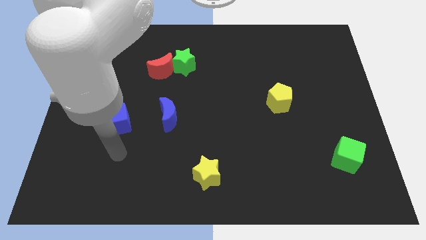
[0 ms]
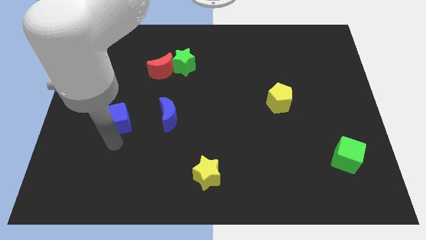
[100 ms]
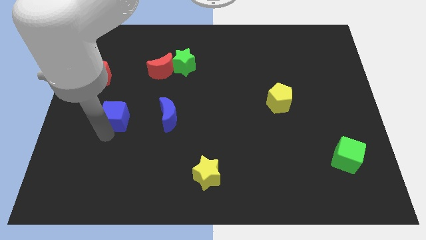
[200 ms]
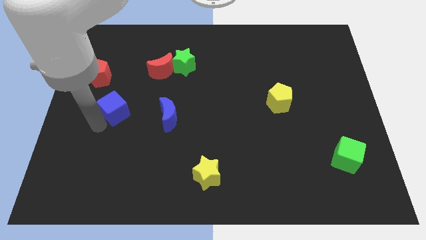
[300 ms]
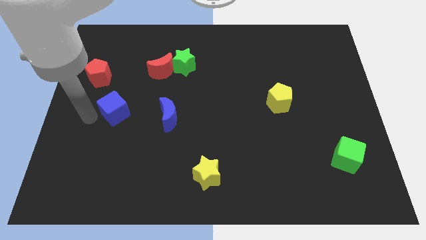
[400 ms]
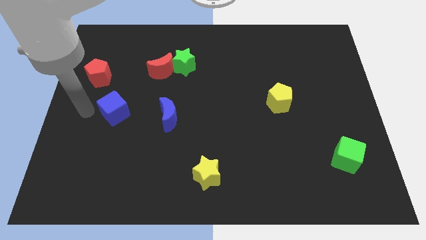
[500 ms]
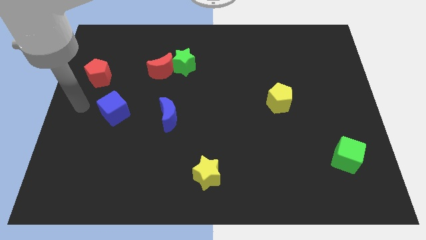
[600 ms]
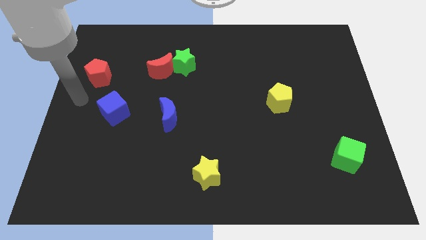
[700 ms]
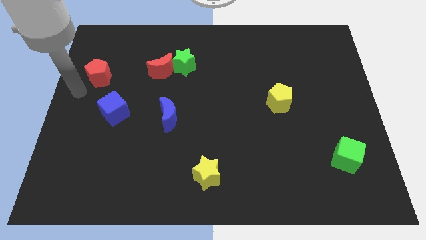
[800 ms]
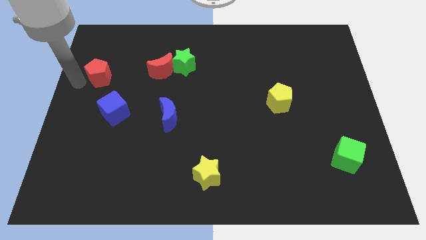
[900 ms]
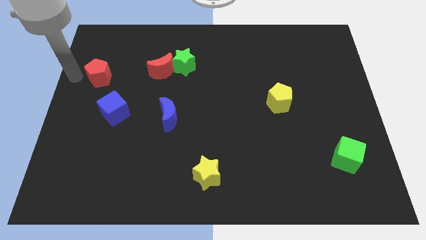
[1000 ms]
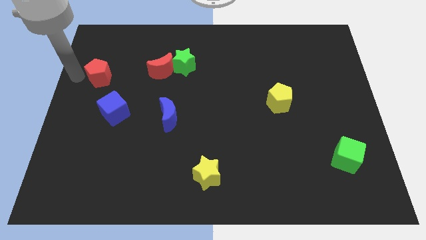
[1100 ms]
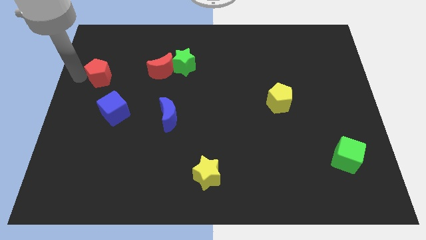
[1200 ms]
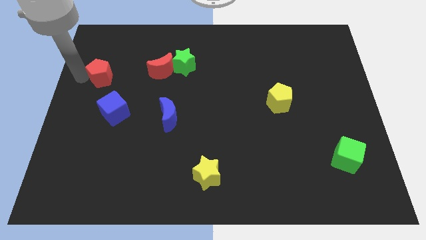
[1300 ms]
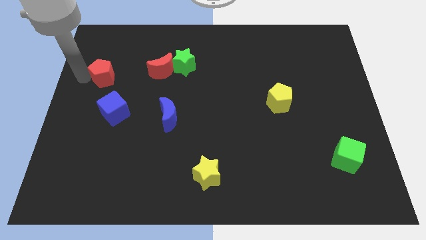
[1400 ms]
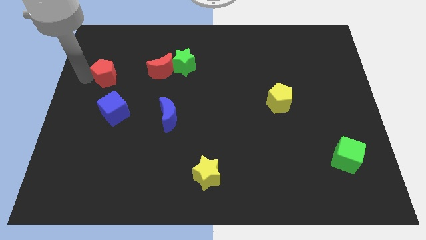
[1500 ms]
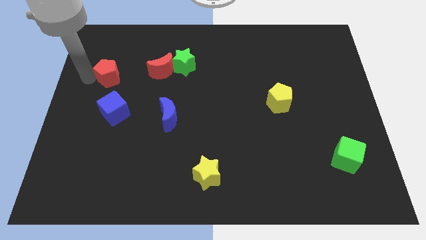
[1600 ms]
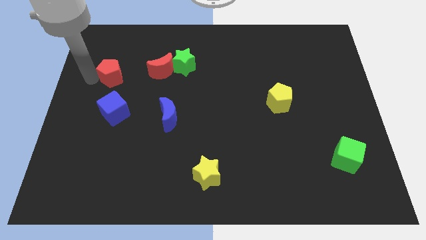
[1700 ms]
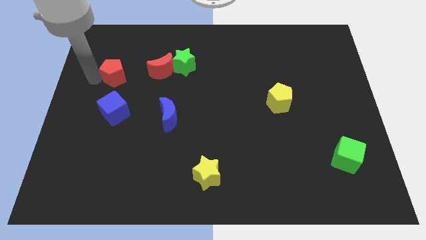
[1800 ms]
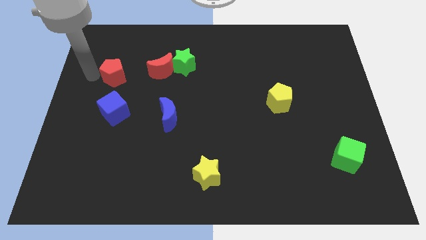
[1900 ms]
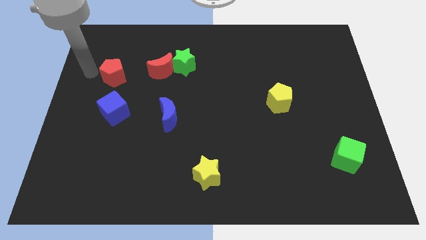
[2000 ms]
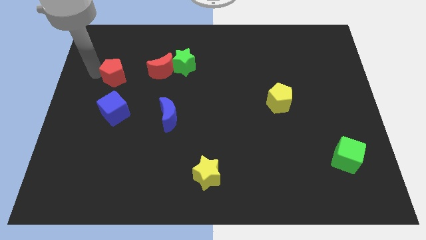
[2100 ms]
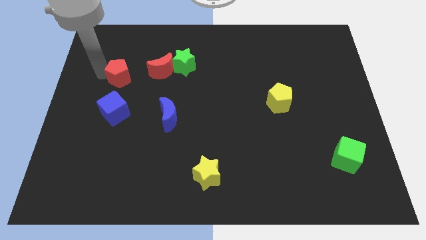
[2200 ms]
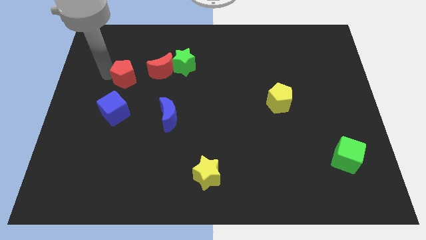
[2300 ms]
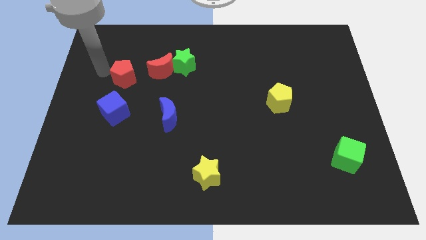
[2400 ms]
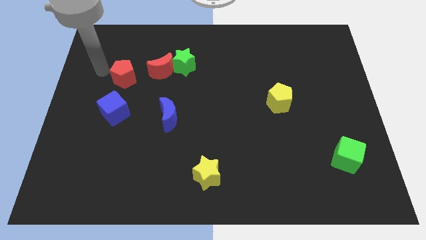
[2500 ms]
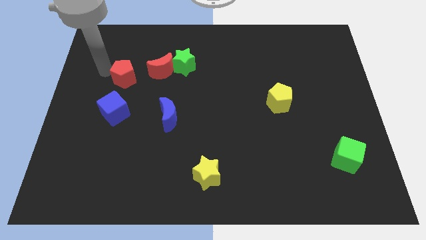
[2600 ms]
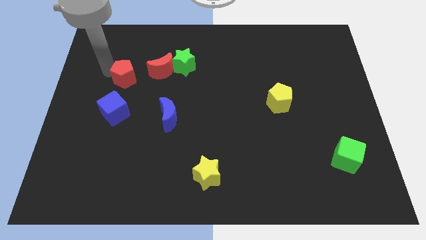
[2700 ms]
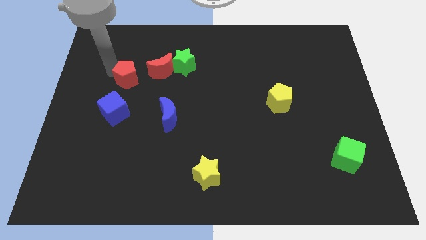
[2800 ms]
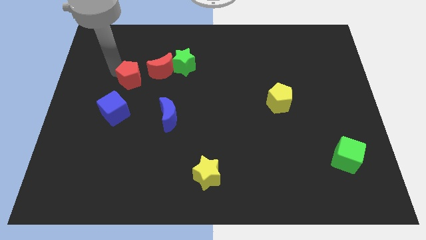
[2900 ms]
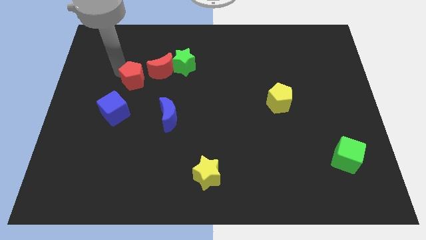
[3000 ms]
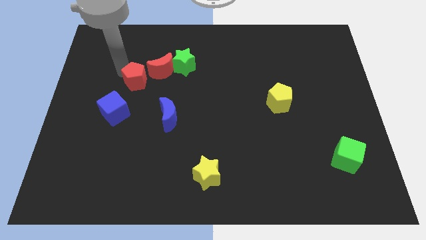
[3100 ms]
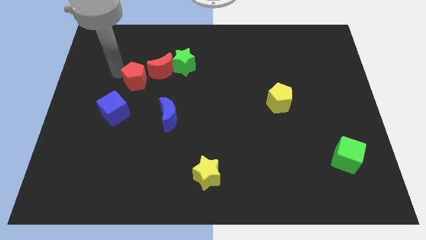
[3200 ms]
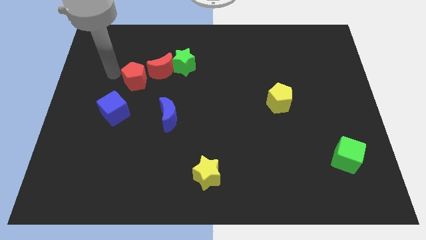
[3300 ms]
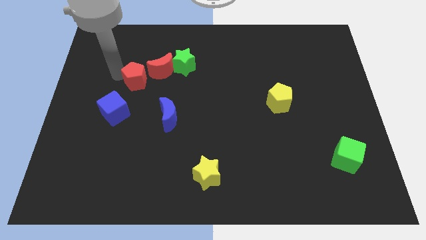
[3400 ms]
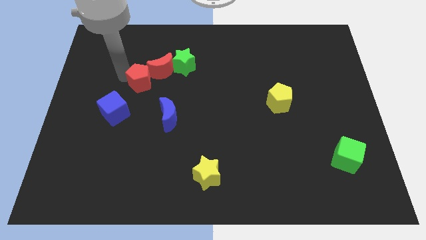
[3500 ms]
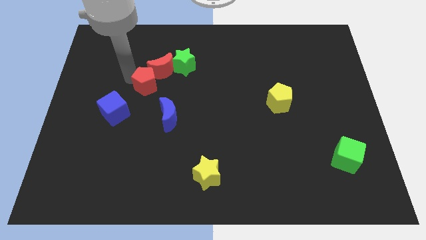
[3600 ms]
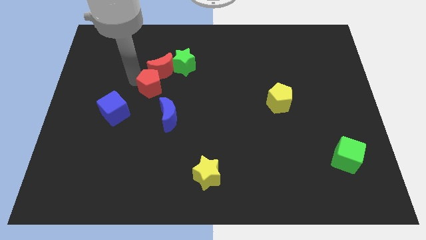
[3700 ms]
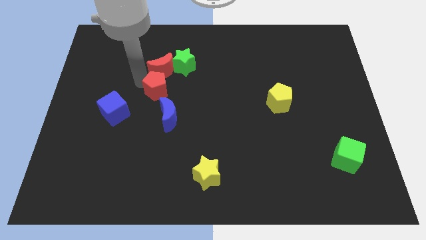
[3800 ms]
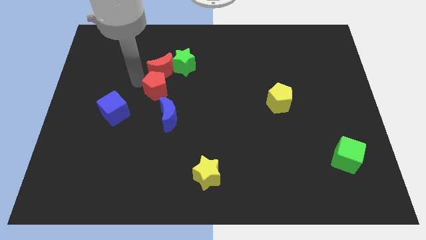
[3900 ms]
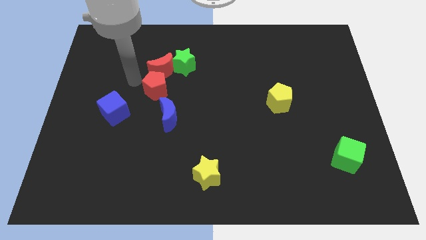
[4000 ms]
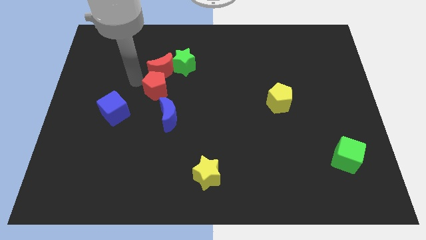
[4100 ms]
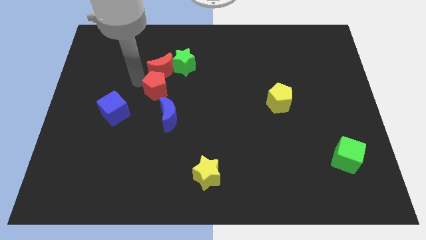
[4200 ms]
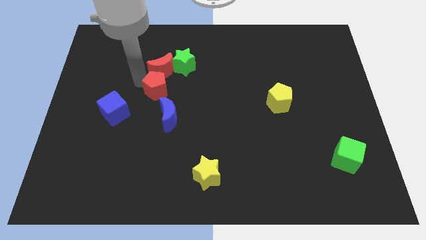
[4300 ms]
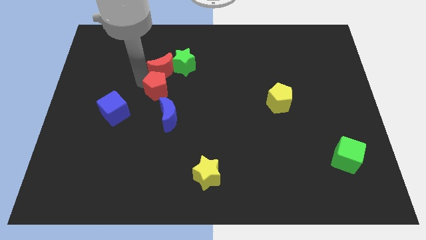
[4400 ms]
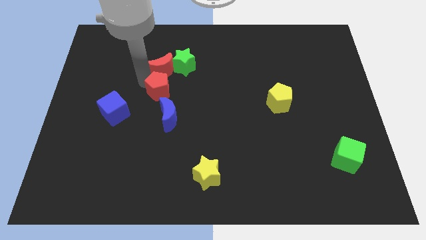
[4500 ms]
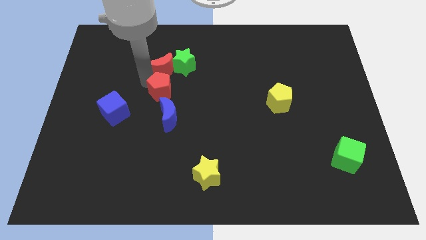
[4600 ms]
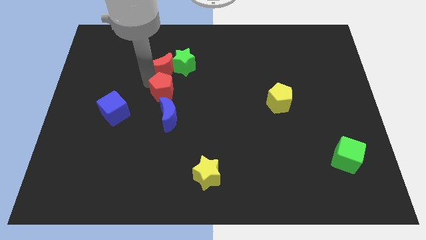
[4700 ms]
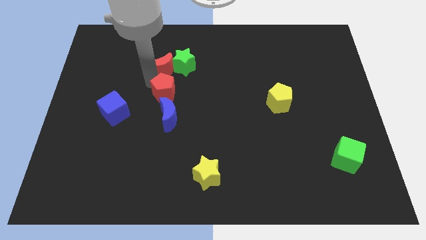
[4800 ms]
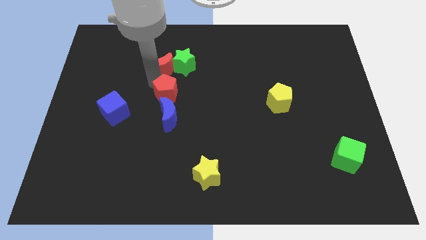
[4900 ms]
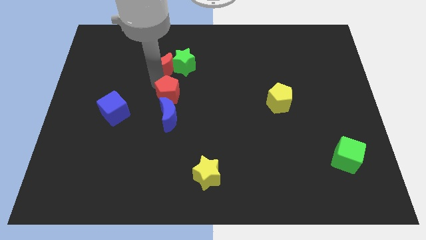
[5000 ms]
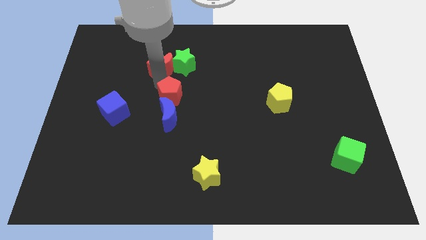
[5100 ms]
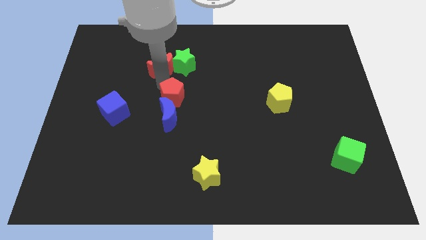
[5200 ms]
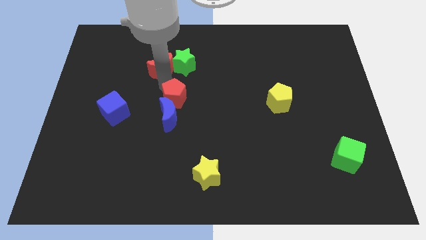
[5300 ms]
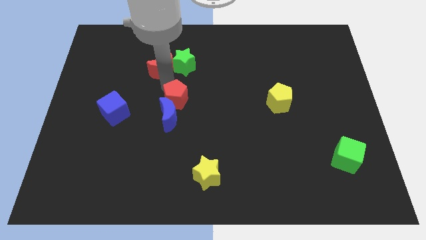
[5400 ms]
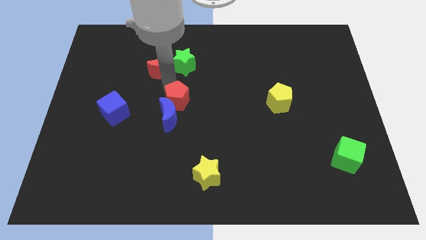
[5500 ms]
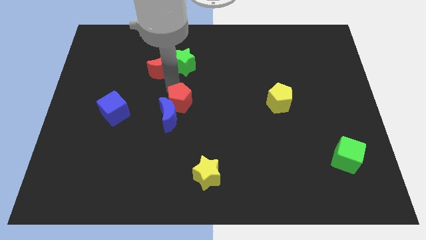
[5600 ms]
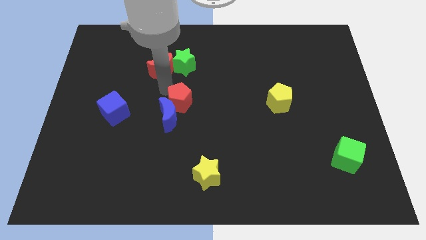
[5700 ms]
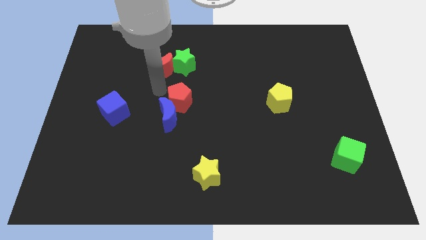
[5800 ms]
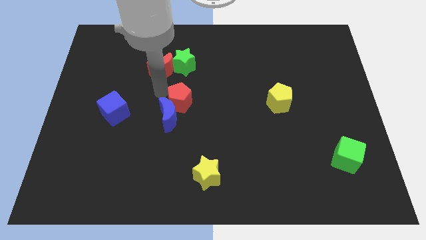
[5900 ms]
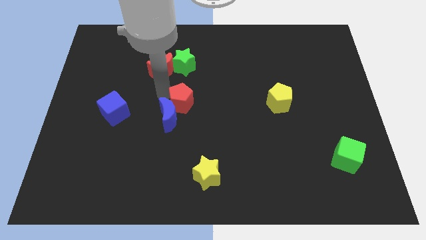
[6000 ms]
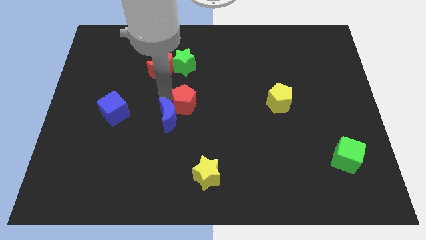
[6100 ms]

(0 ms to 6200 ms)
move the red pentagon to the right of the blue moon

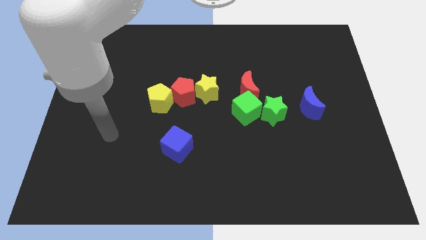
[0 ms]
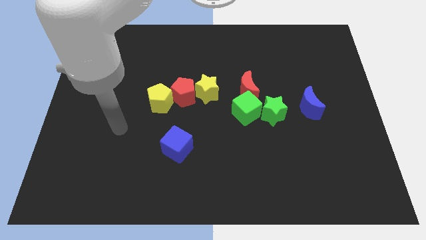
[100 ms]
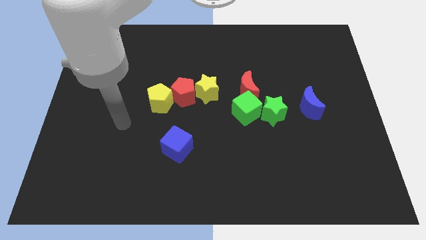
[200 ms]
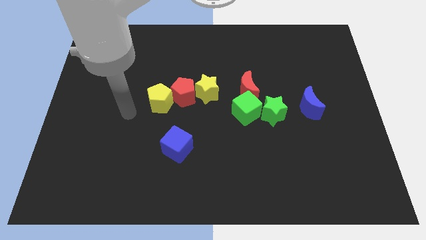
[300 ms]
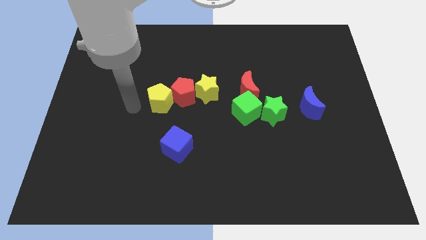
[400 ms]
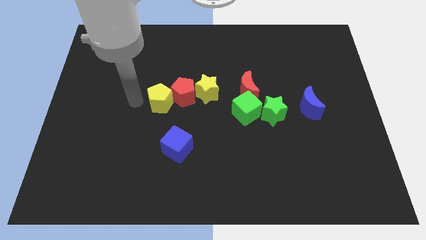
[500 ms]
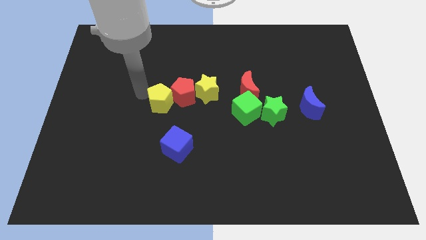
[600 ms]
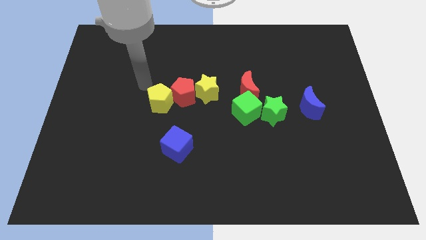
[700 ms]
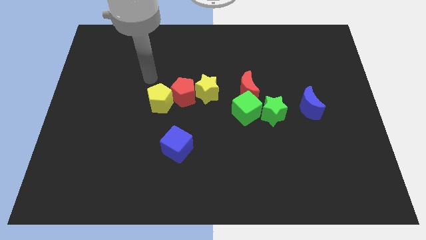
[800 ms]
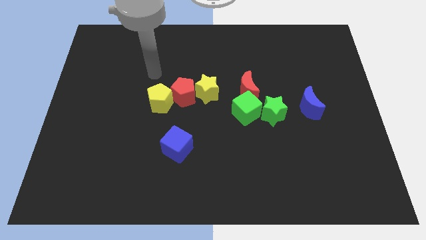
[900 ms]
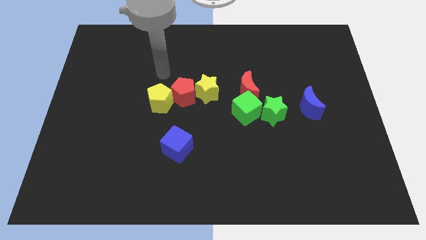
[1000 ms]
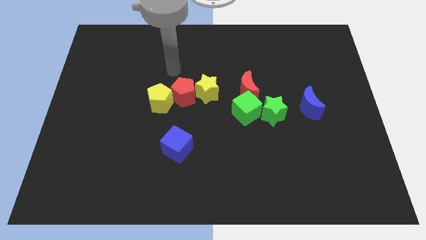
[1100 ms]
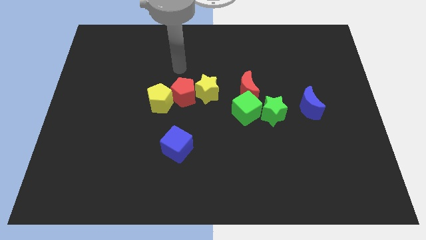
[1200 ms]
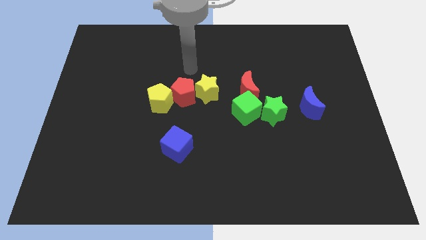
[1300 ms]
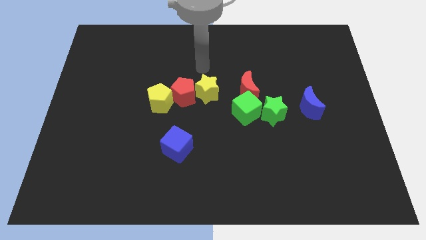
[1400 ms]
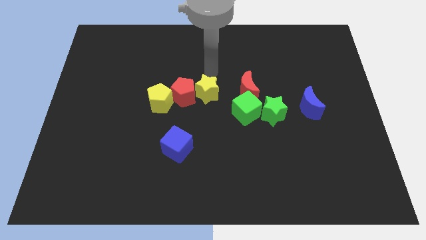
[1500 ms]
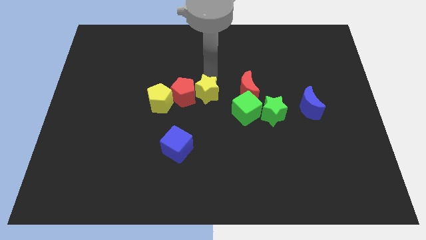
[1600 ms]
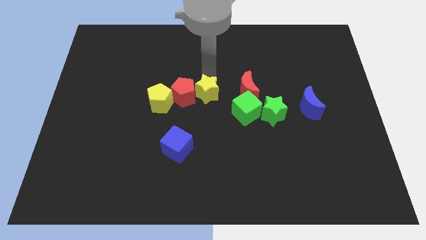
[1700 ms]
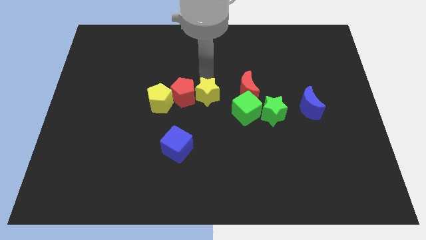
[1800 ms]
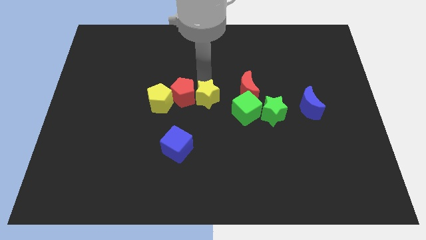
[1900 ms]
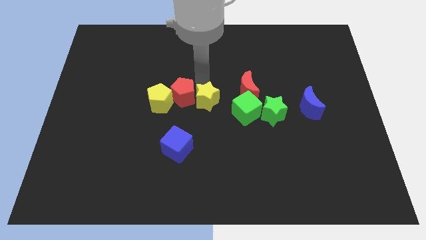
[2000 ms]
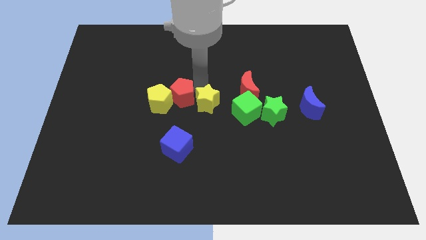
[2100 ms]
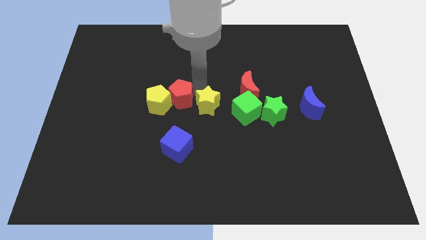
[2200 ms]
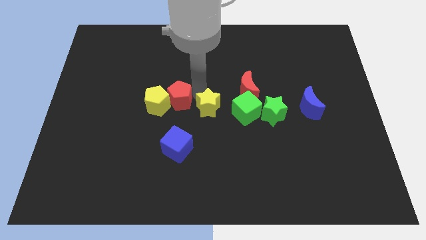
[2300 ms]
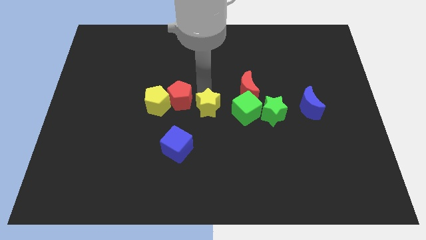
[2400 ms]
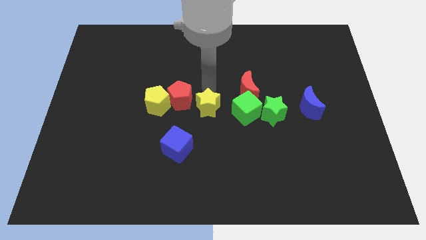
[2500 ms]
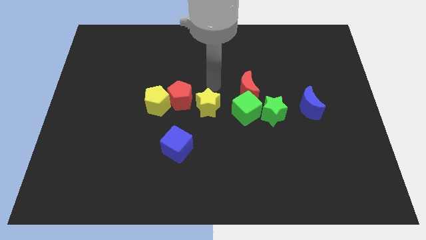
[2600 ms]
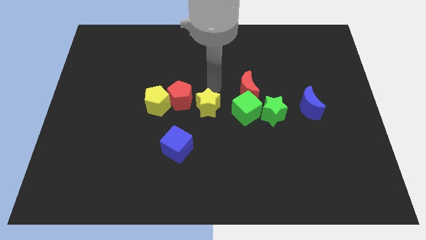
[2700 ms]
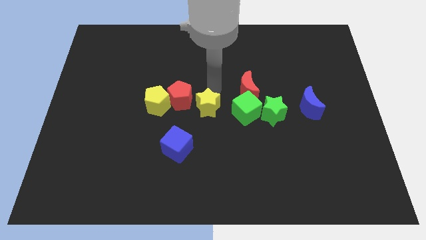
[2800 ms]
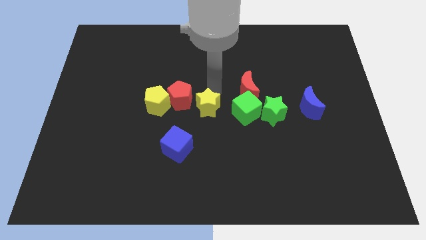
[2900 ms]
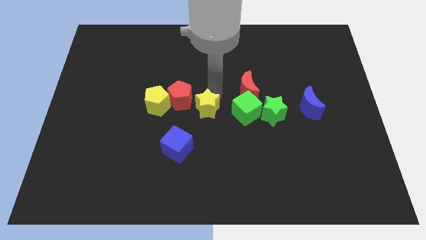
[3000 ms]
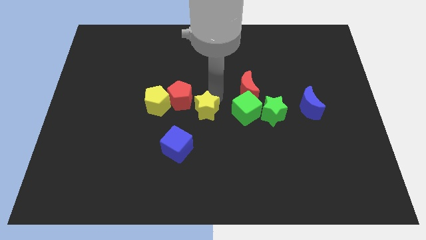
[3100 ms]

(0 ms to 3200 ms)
put the yellow star to the top right of the blue cube
